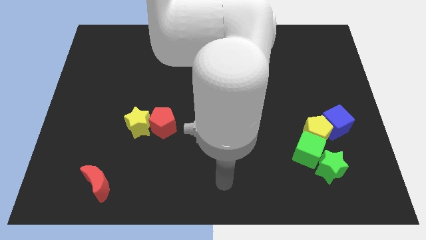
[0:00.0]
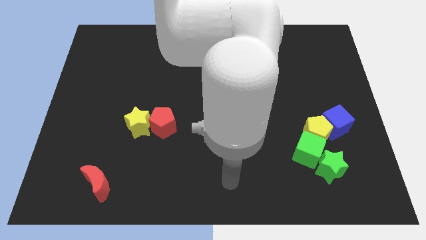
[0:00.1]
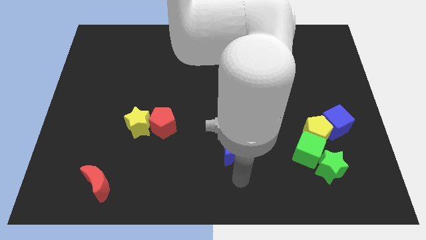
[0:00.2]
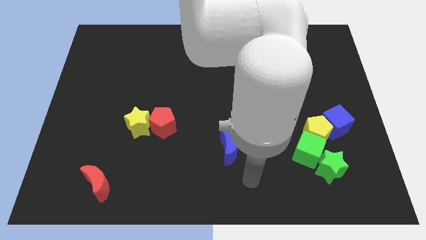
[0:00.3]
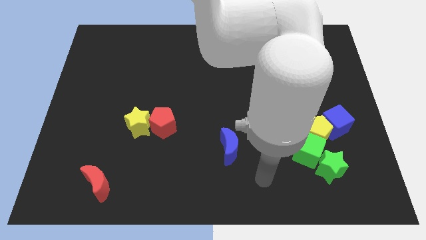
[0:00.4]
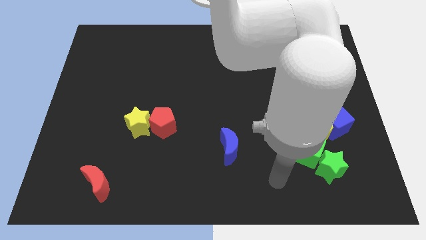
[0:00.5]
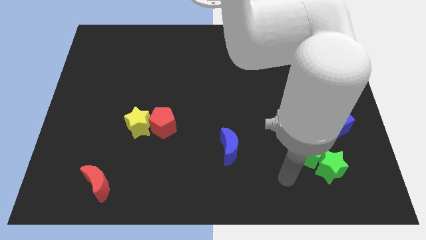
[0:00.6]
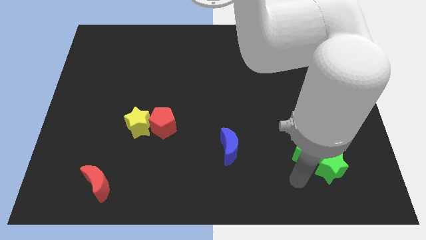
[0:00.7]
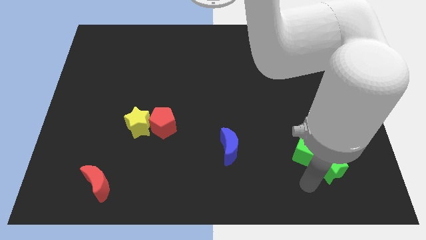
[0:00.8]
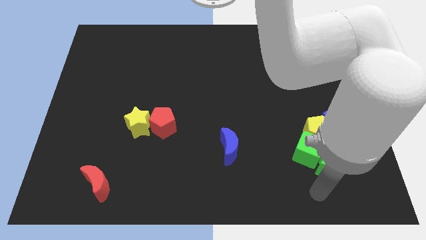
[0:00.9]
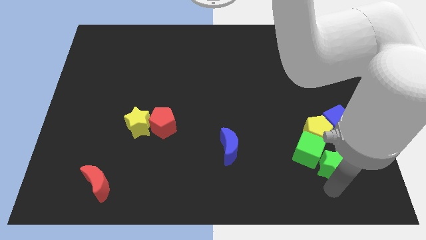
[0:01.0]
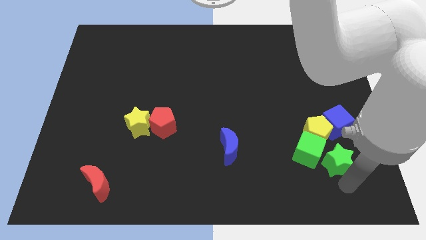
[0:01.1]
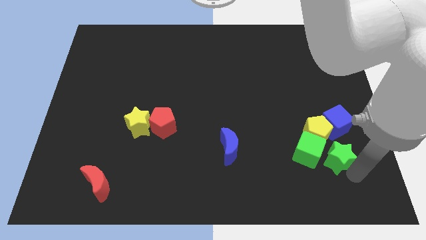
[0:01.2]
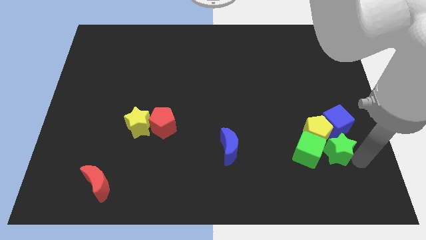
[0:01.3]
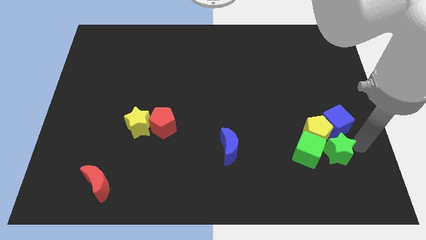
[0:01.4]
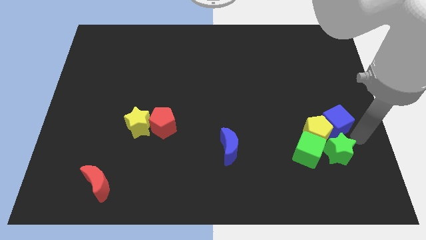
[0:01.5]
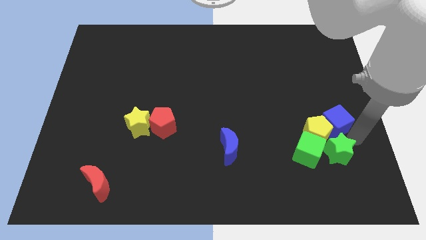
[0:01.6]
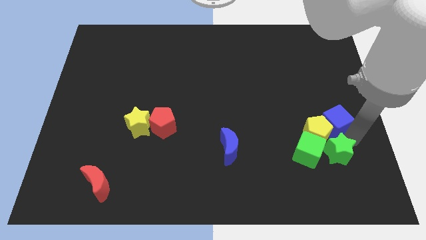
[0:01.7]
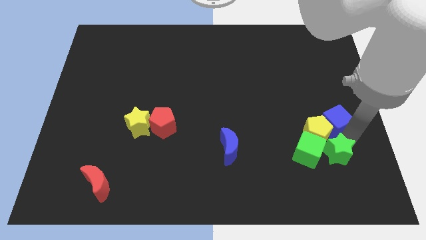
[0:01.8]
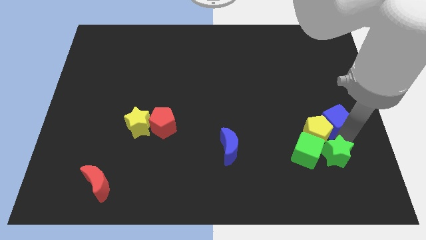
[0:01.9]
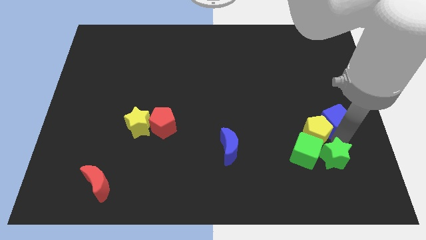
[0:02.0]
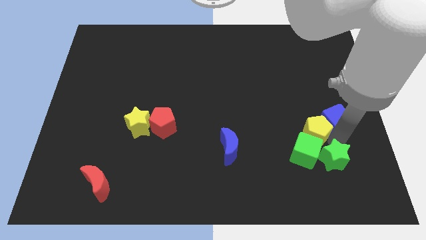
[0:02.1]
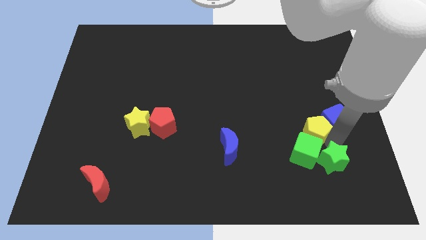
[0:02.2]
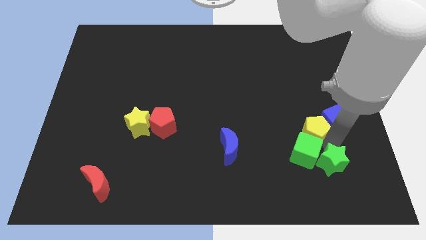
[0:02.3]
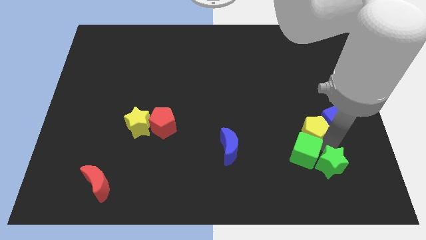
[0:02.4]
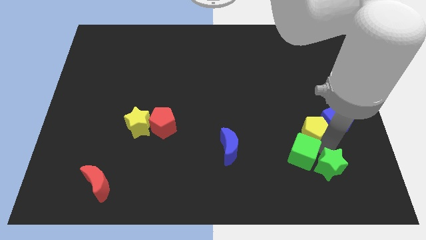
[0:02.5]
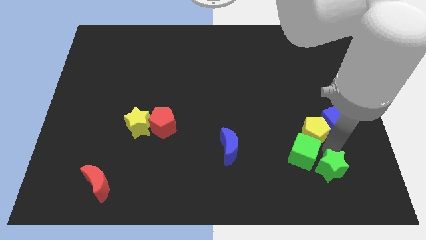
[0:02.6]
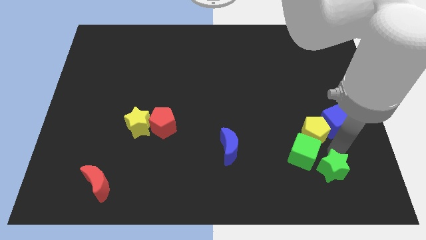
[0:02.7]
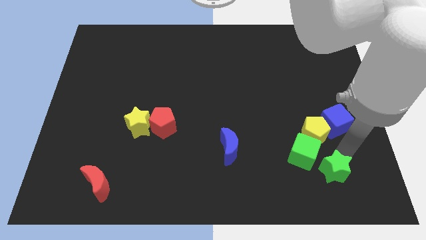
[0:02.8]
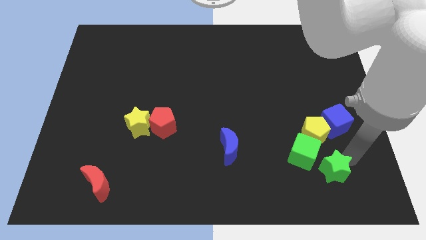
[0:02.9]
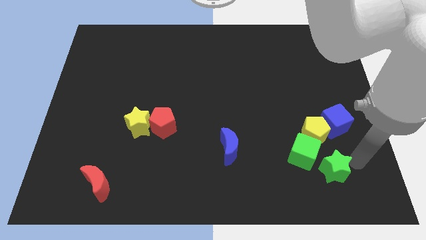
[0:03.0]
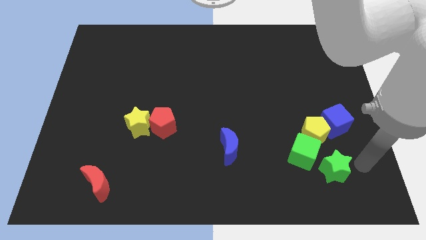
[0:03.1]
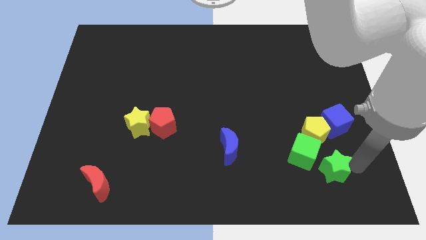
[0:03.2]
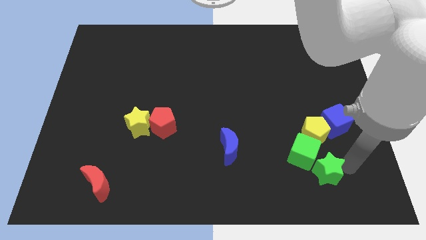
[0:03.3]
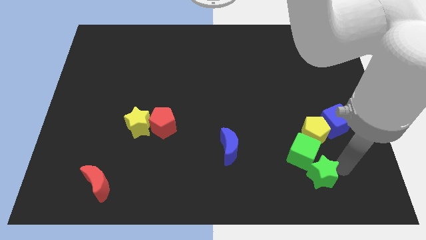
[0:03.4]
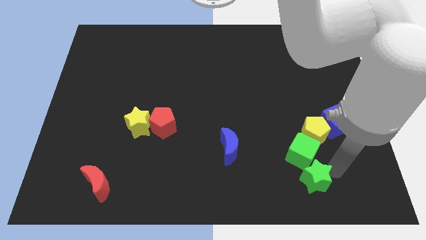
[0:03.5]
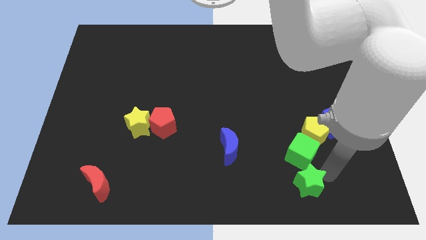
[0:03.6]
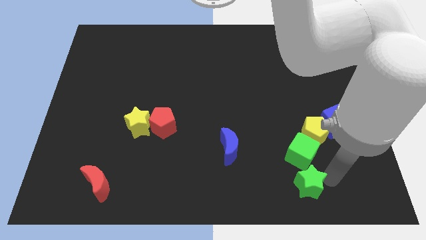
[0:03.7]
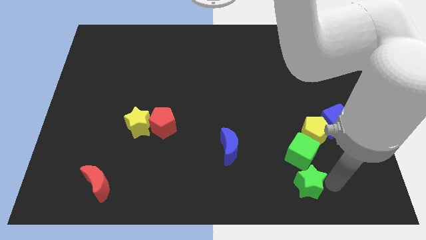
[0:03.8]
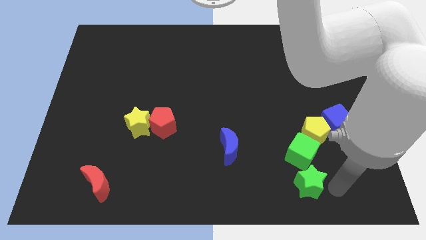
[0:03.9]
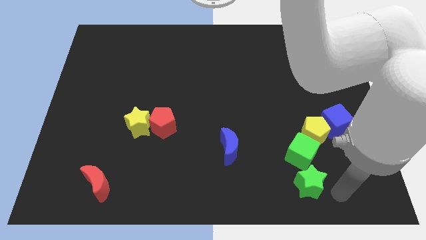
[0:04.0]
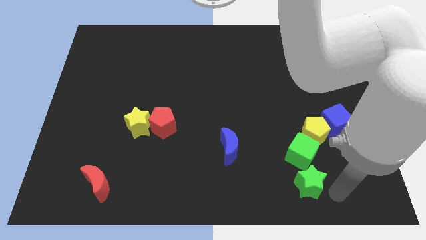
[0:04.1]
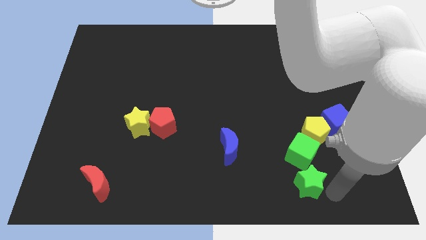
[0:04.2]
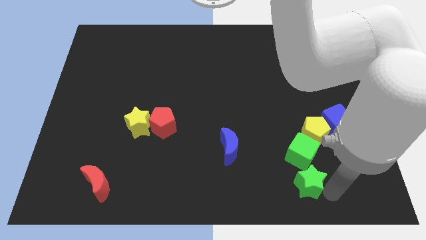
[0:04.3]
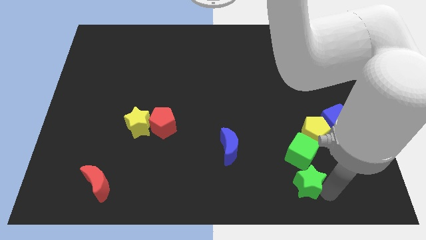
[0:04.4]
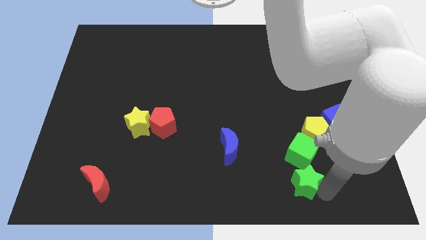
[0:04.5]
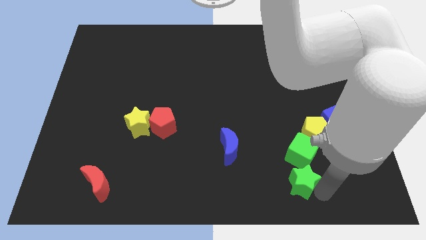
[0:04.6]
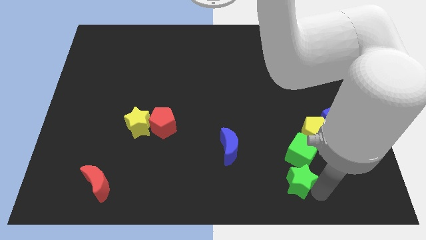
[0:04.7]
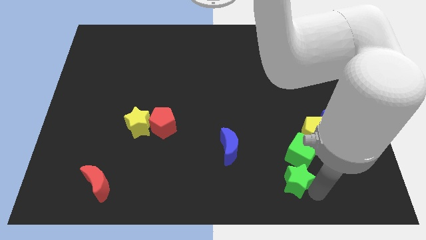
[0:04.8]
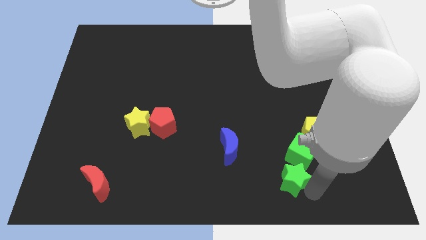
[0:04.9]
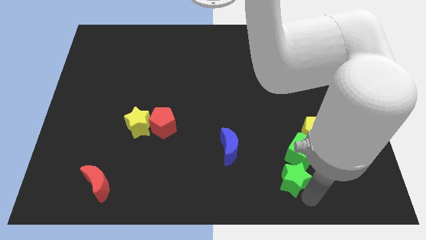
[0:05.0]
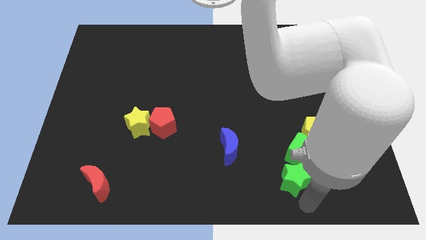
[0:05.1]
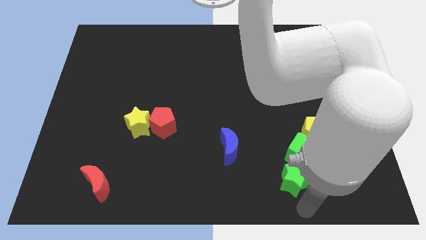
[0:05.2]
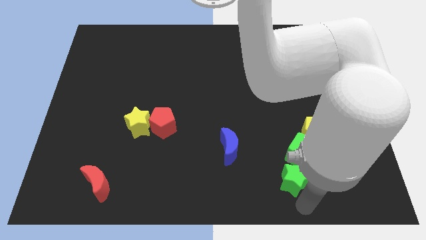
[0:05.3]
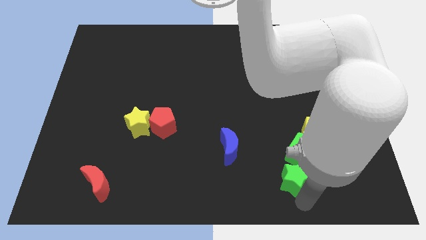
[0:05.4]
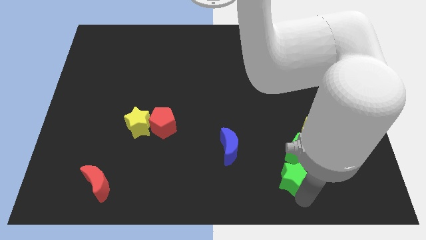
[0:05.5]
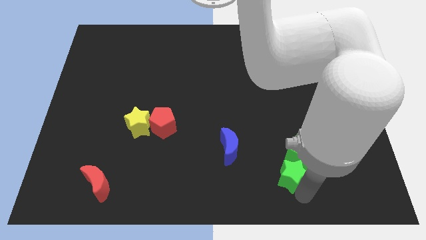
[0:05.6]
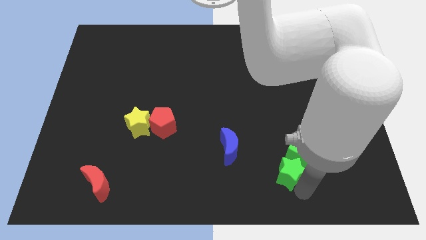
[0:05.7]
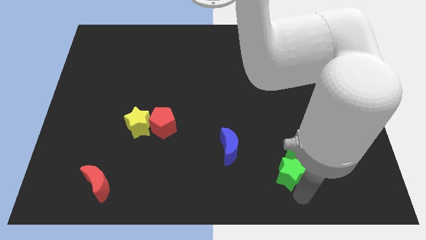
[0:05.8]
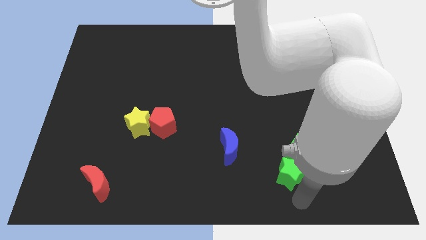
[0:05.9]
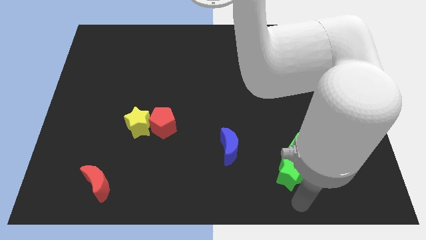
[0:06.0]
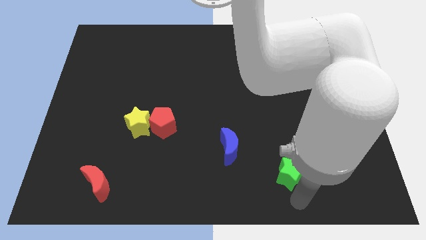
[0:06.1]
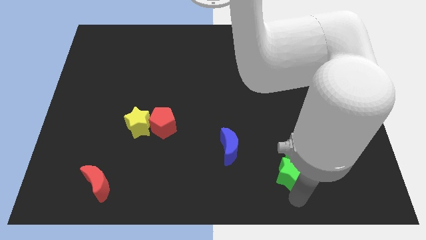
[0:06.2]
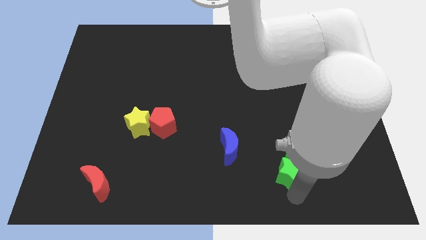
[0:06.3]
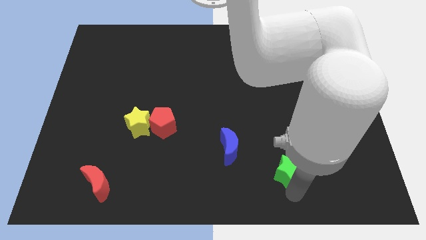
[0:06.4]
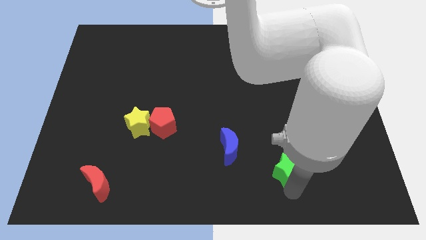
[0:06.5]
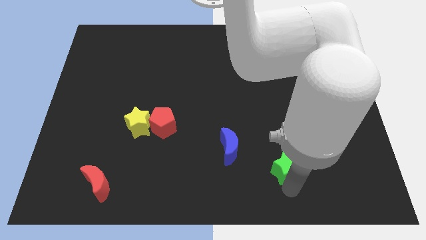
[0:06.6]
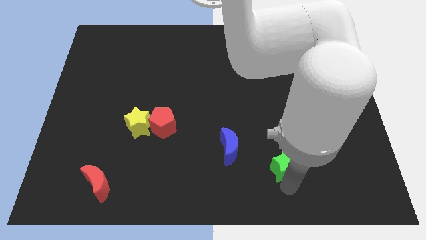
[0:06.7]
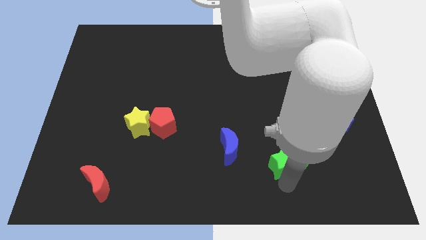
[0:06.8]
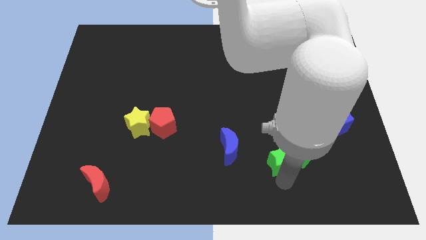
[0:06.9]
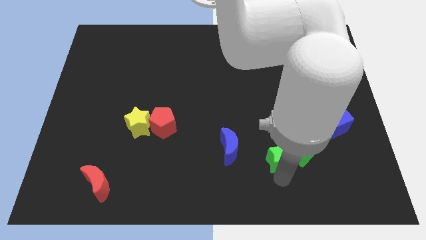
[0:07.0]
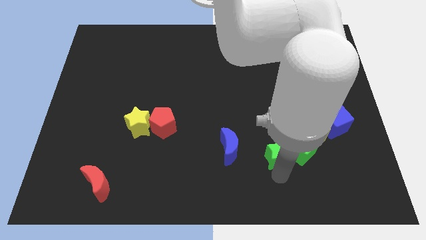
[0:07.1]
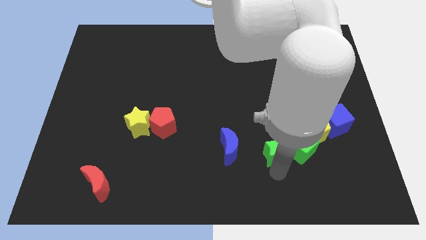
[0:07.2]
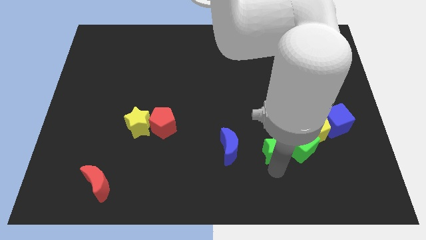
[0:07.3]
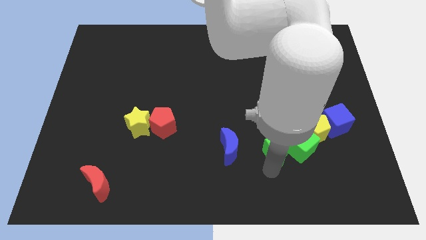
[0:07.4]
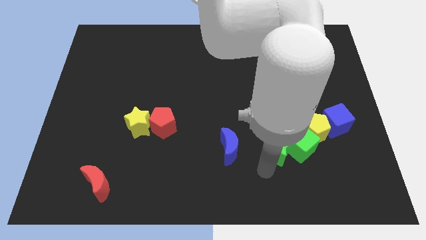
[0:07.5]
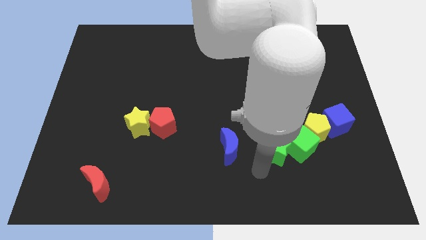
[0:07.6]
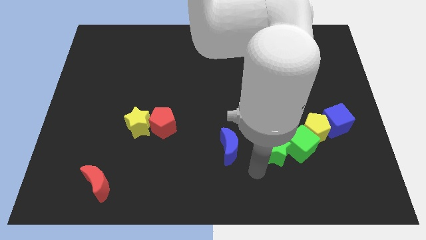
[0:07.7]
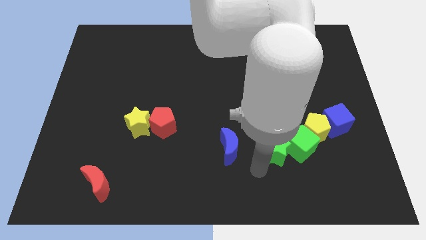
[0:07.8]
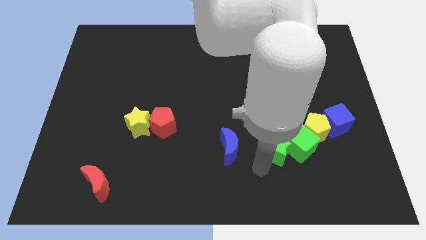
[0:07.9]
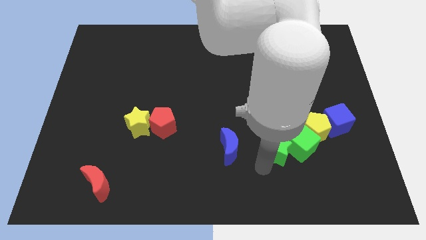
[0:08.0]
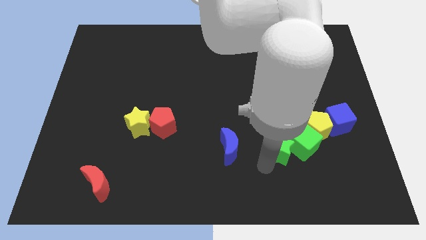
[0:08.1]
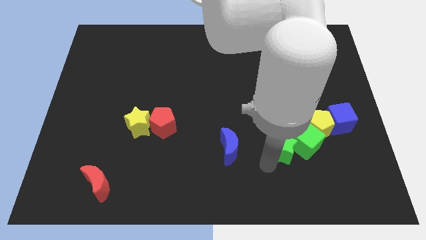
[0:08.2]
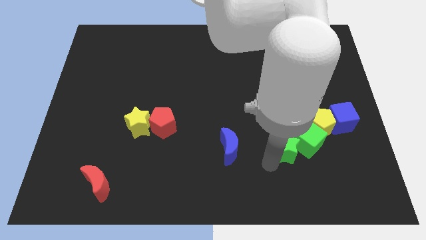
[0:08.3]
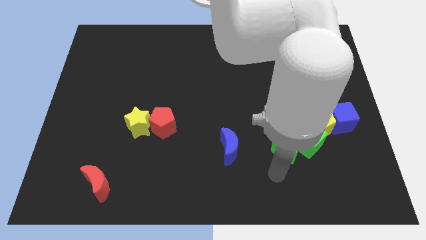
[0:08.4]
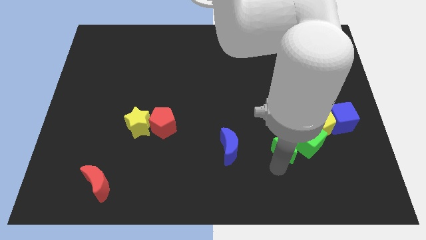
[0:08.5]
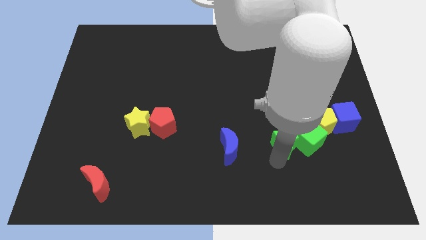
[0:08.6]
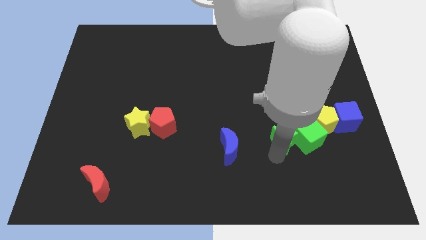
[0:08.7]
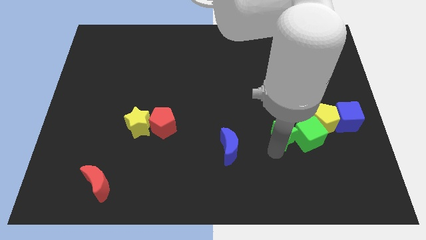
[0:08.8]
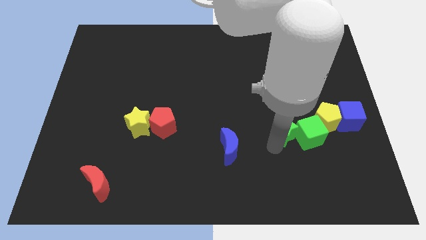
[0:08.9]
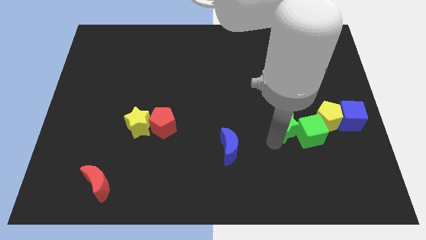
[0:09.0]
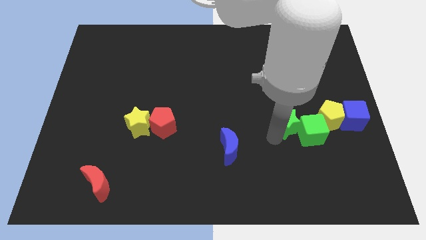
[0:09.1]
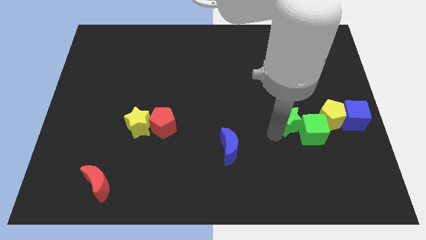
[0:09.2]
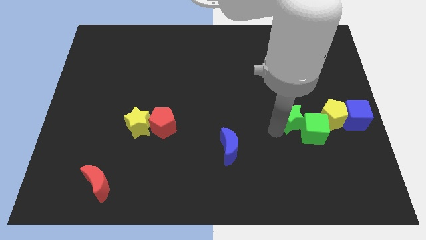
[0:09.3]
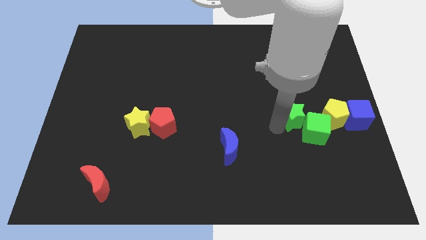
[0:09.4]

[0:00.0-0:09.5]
slide the green star to the top side of the green cube
